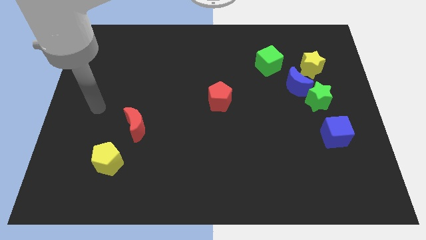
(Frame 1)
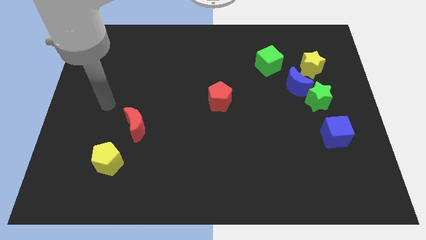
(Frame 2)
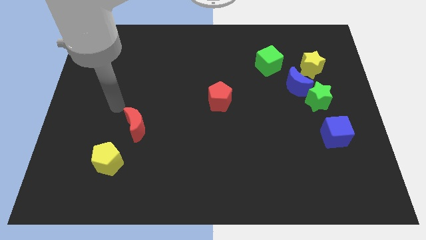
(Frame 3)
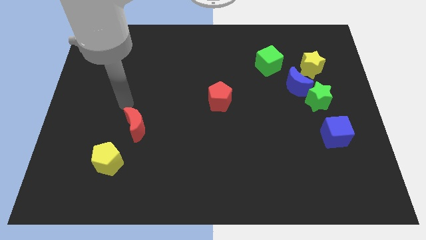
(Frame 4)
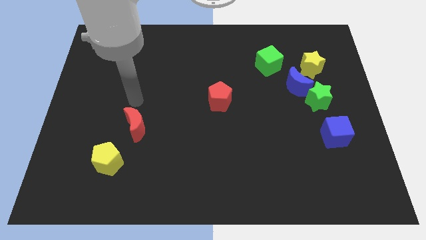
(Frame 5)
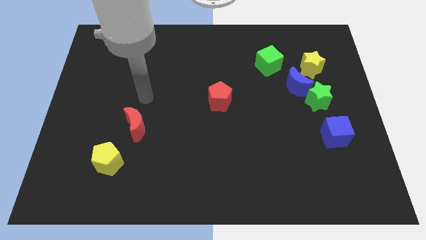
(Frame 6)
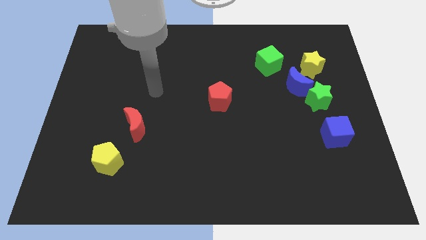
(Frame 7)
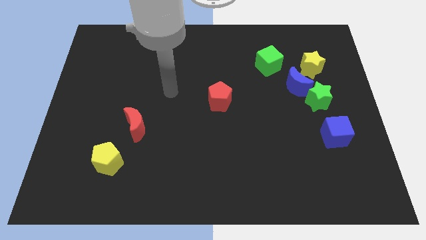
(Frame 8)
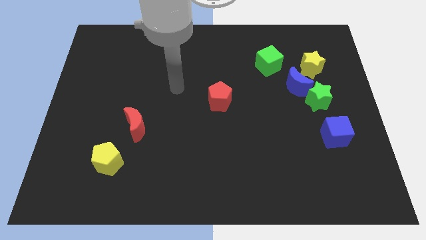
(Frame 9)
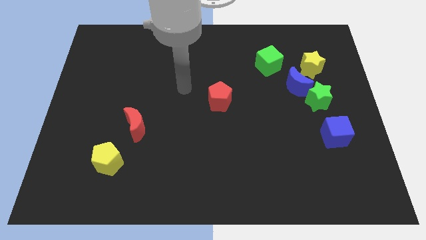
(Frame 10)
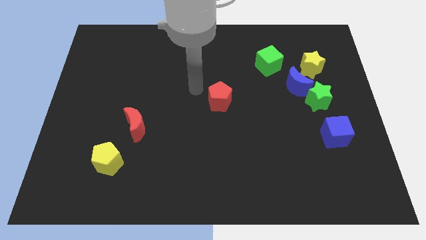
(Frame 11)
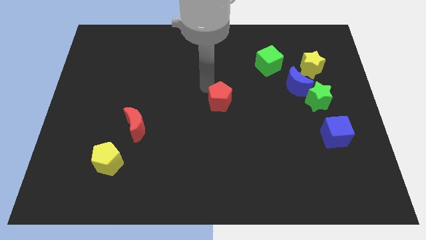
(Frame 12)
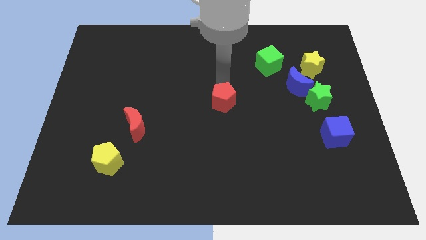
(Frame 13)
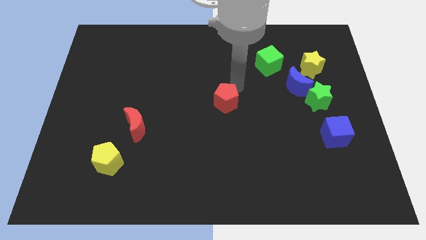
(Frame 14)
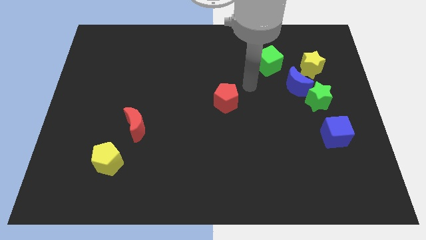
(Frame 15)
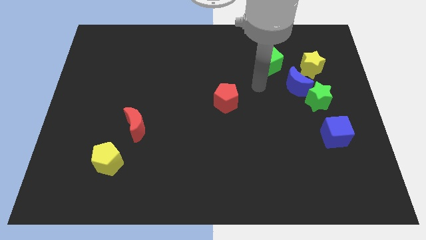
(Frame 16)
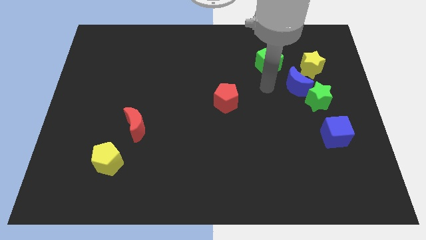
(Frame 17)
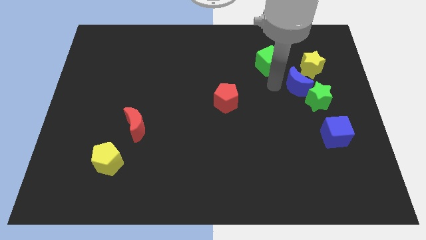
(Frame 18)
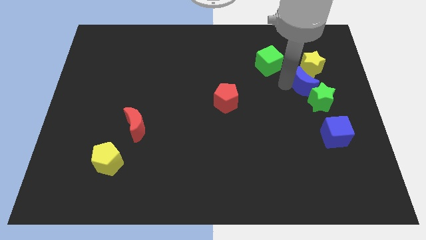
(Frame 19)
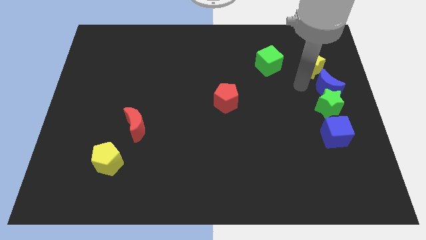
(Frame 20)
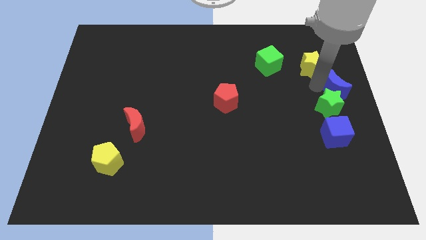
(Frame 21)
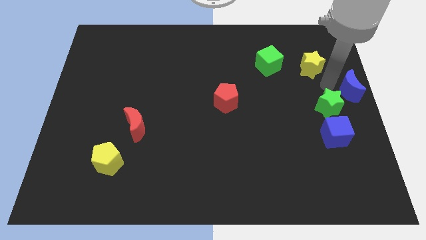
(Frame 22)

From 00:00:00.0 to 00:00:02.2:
move the yellow star away from the blue moon

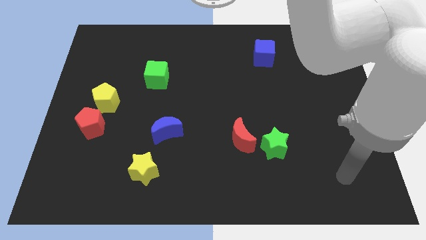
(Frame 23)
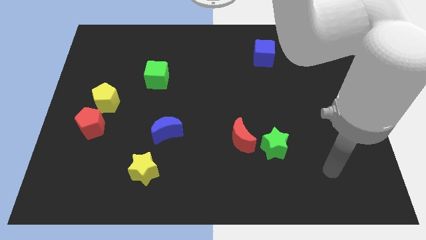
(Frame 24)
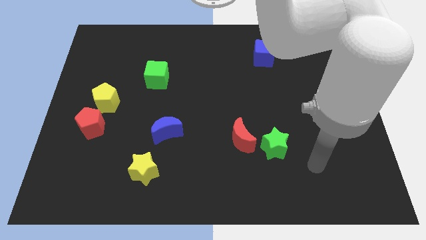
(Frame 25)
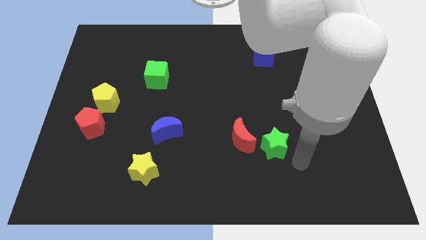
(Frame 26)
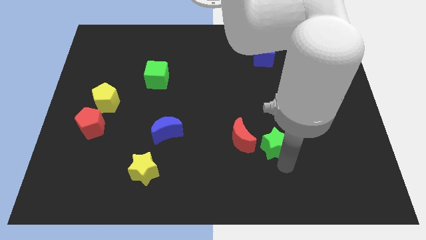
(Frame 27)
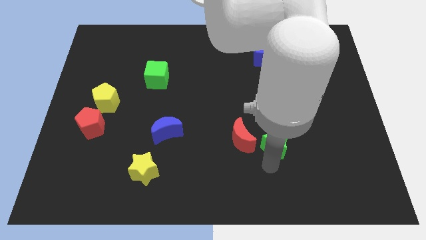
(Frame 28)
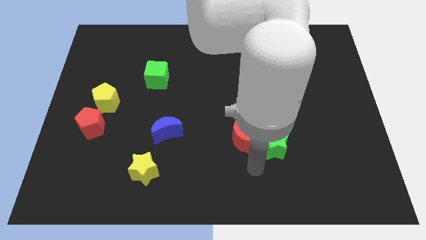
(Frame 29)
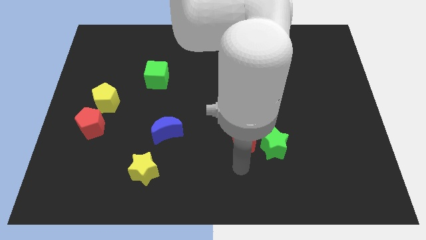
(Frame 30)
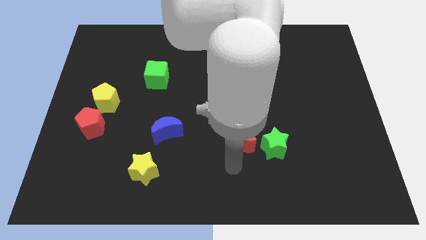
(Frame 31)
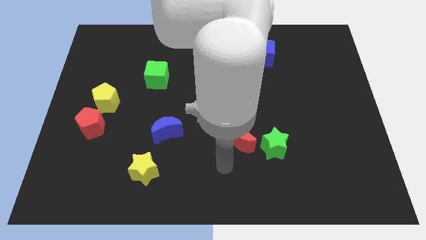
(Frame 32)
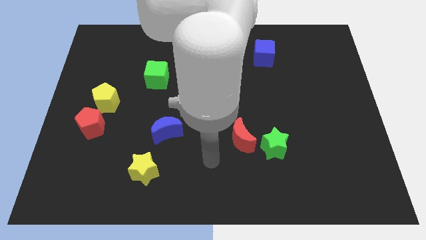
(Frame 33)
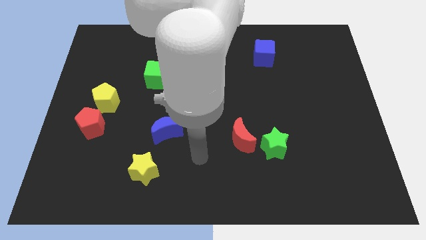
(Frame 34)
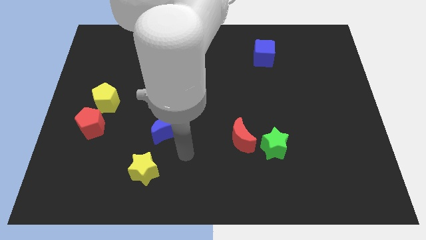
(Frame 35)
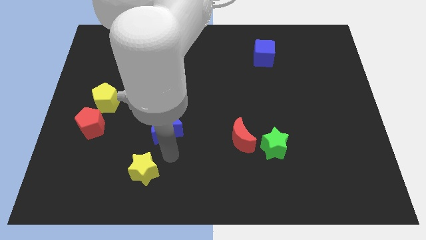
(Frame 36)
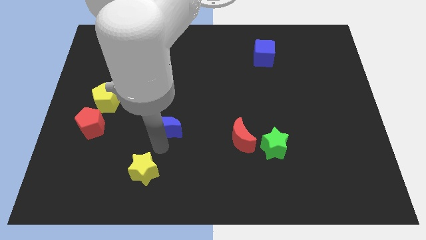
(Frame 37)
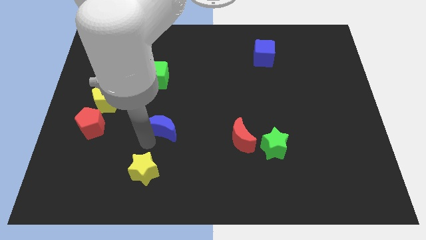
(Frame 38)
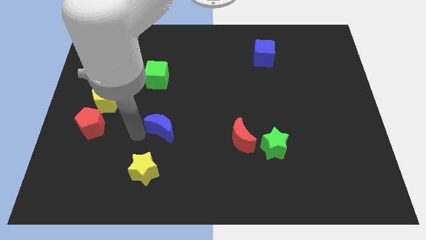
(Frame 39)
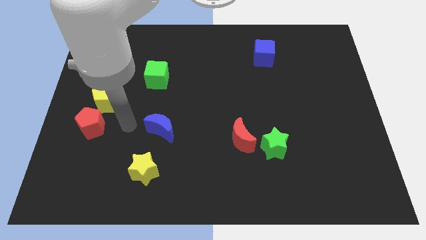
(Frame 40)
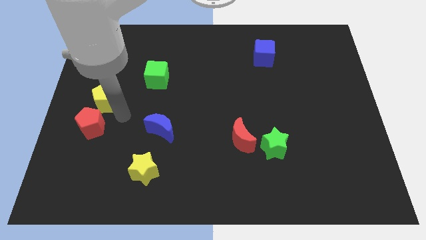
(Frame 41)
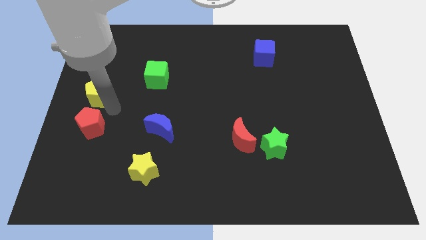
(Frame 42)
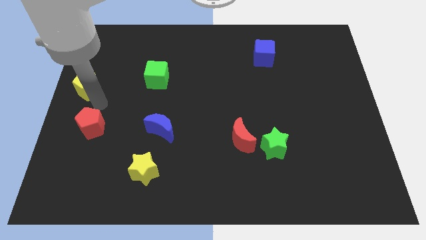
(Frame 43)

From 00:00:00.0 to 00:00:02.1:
pull the red pentagon apart from the yellow pentagon

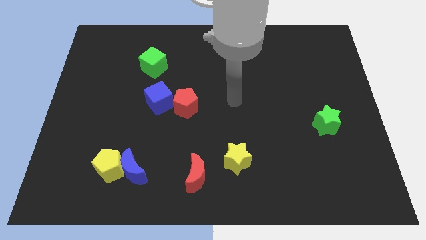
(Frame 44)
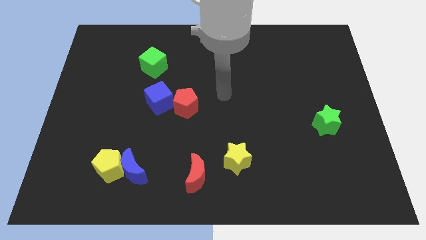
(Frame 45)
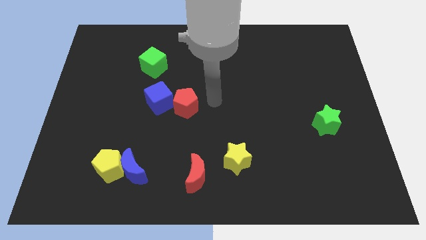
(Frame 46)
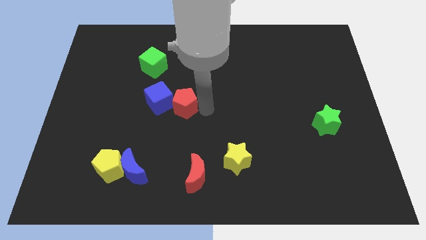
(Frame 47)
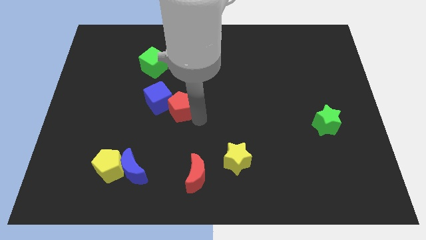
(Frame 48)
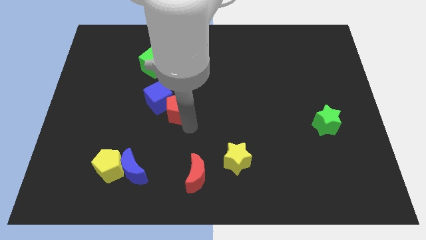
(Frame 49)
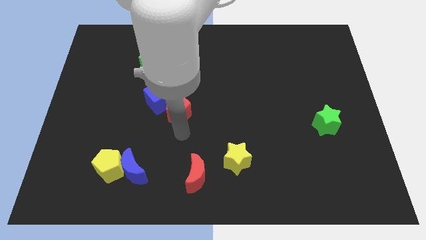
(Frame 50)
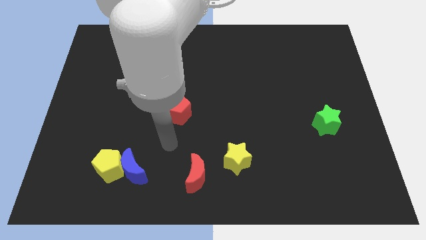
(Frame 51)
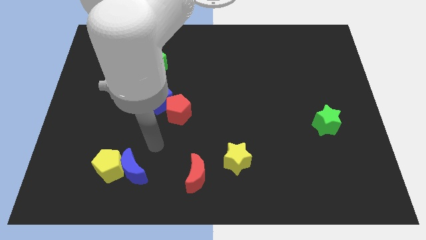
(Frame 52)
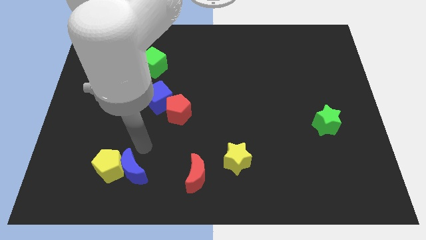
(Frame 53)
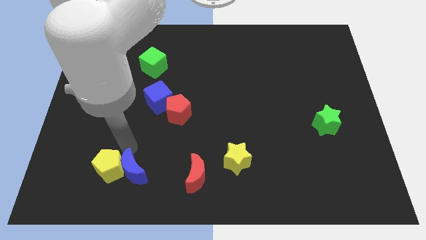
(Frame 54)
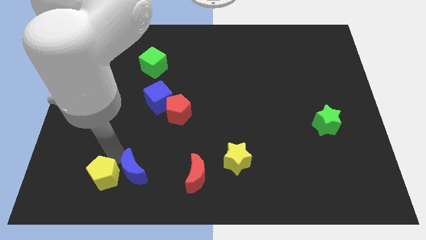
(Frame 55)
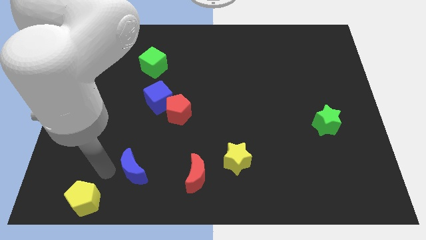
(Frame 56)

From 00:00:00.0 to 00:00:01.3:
pull the blue moon apart from the yellow pentagon

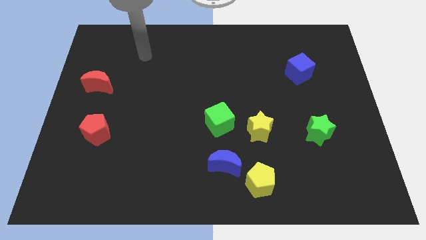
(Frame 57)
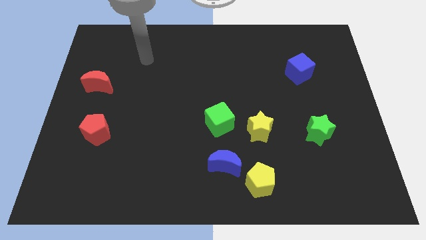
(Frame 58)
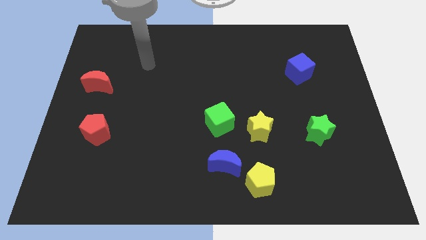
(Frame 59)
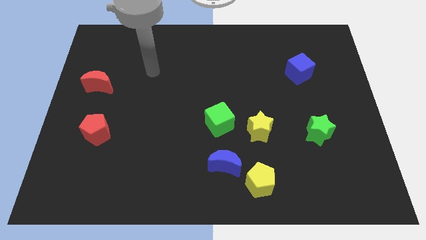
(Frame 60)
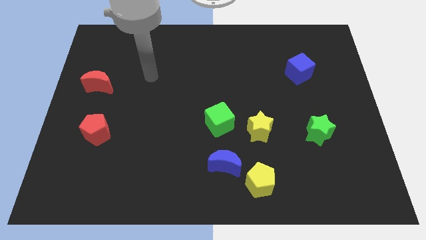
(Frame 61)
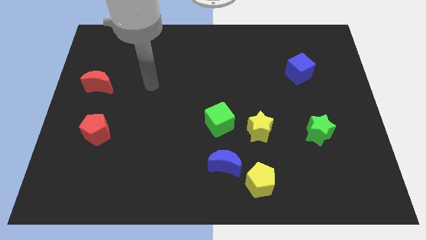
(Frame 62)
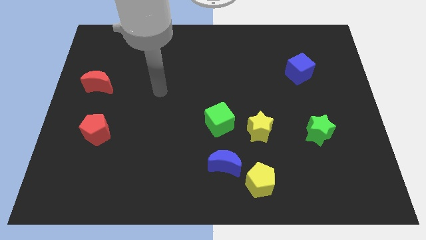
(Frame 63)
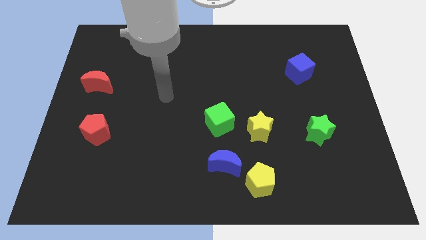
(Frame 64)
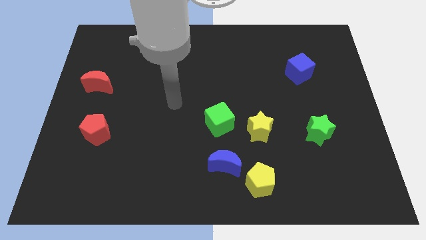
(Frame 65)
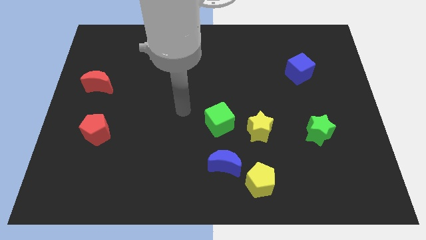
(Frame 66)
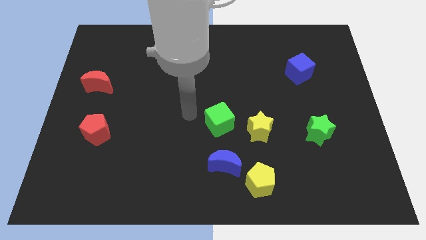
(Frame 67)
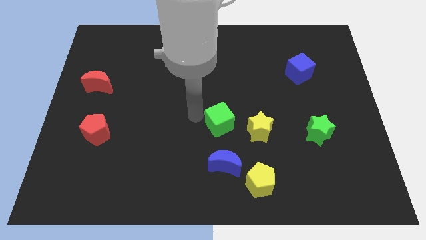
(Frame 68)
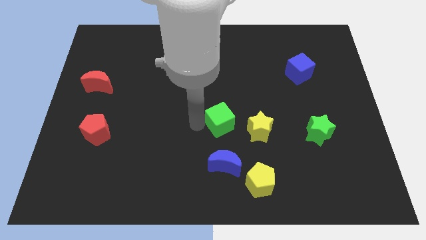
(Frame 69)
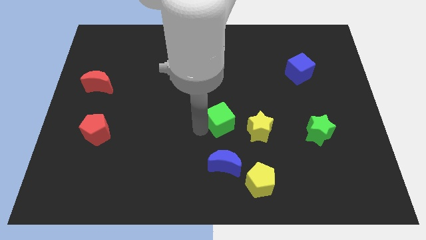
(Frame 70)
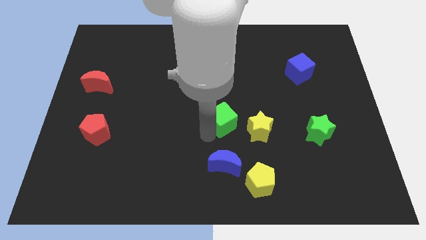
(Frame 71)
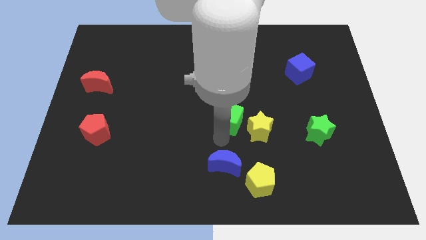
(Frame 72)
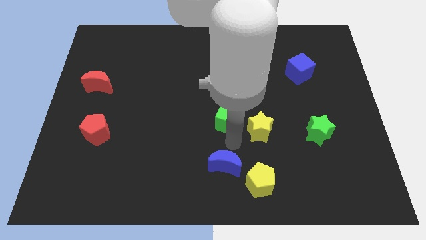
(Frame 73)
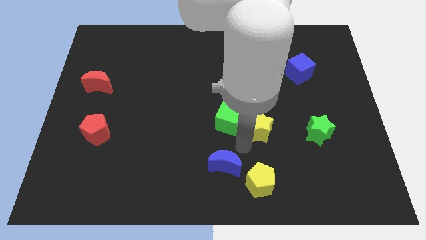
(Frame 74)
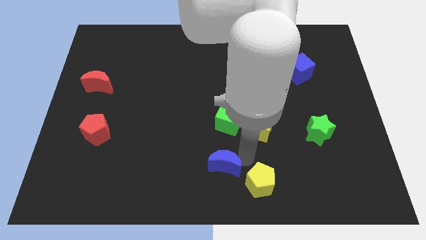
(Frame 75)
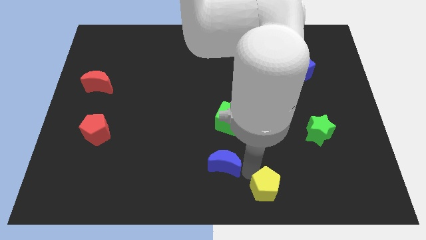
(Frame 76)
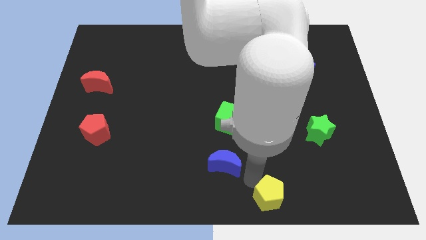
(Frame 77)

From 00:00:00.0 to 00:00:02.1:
separate the blue moon from the yellow pentagon

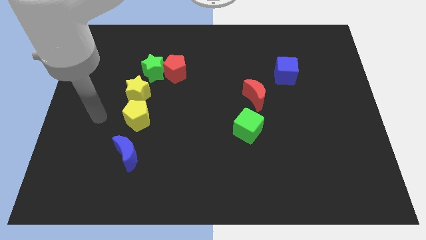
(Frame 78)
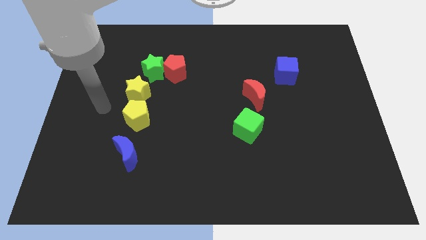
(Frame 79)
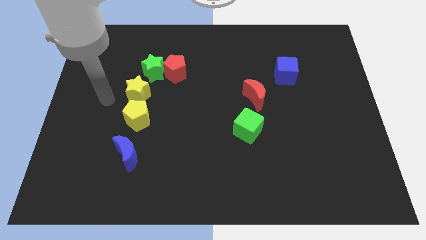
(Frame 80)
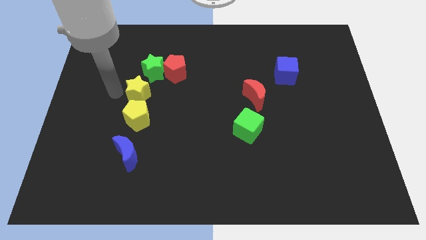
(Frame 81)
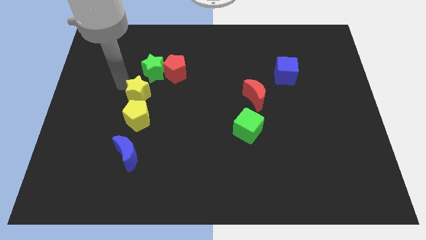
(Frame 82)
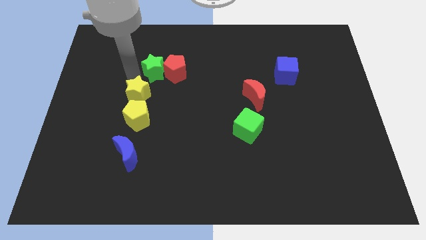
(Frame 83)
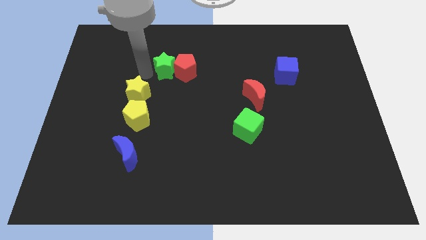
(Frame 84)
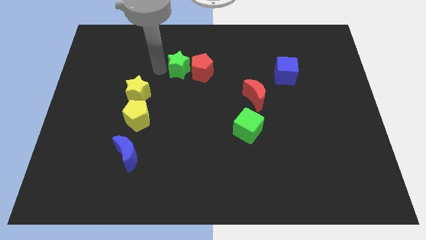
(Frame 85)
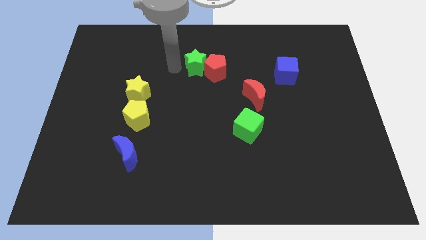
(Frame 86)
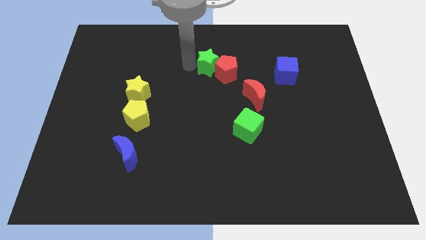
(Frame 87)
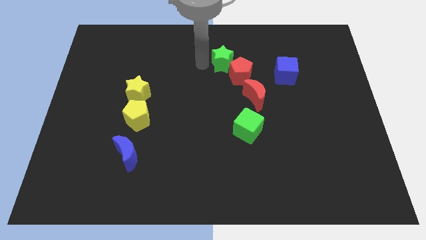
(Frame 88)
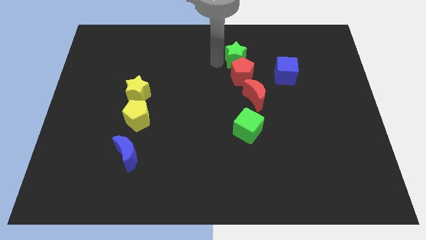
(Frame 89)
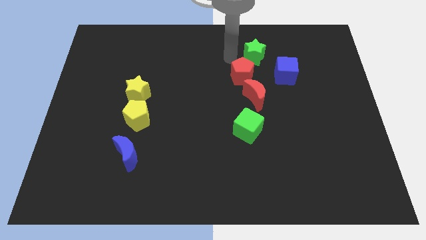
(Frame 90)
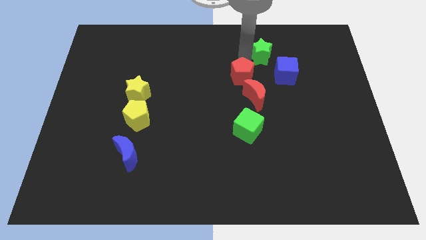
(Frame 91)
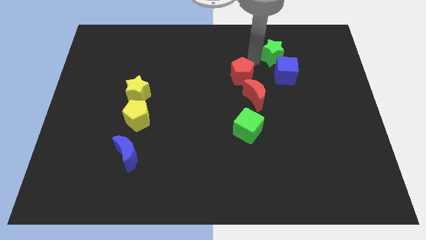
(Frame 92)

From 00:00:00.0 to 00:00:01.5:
move the red pentagon away from the green star

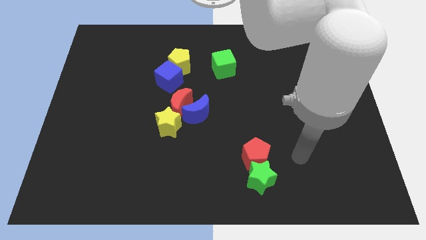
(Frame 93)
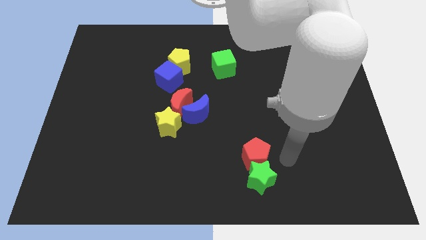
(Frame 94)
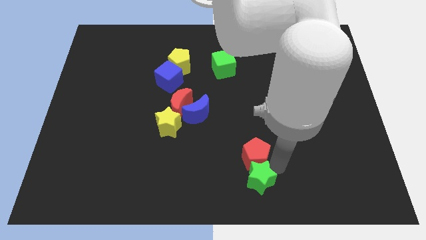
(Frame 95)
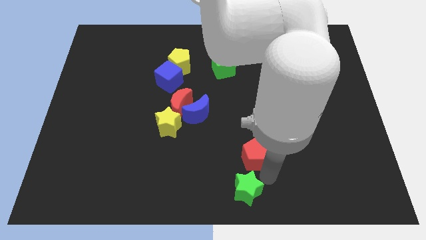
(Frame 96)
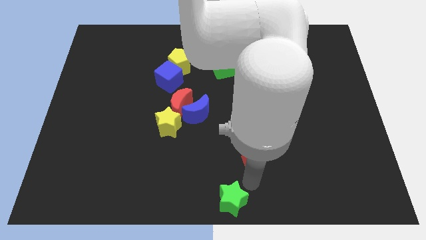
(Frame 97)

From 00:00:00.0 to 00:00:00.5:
pull the red pentagon apart from the green star
